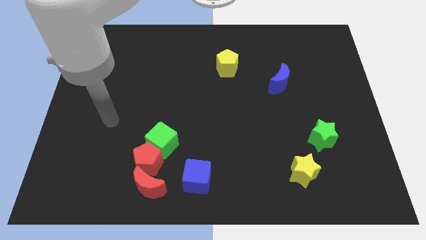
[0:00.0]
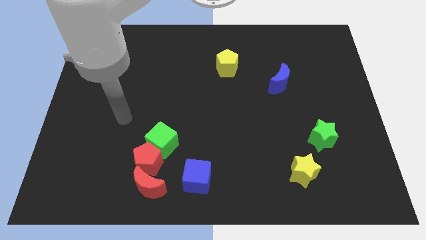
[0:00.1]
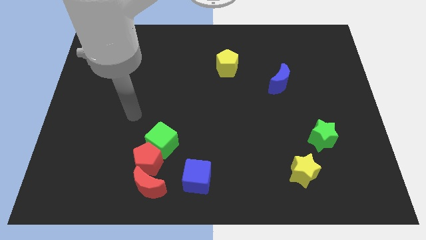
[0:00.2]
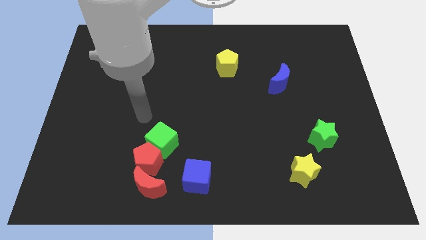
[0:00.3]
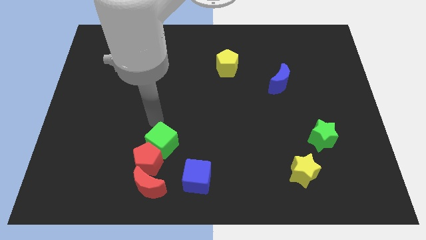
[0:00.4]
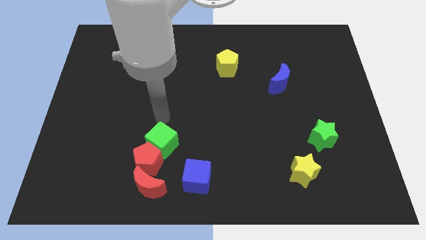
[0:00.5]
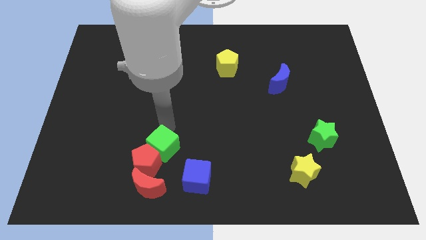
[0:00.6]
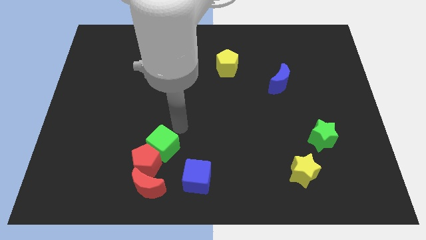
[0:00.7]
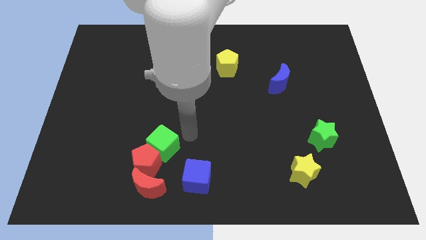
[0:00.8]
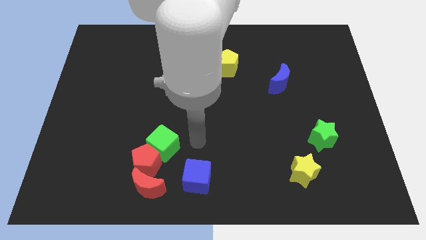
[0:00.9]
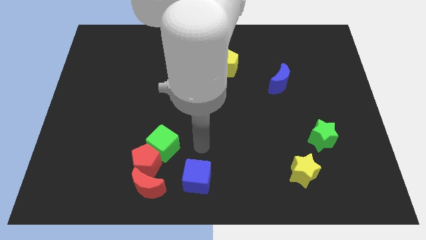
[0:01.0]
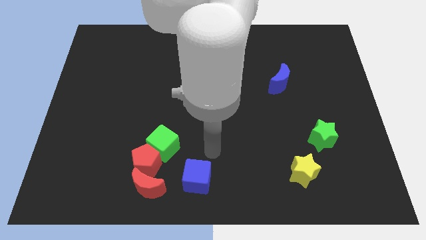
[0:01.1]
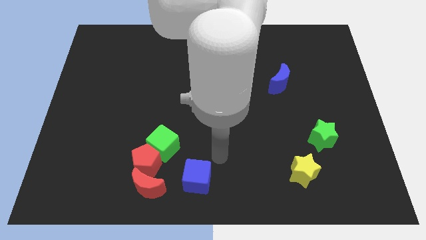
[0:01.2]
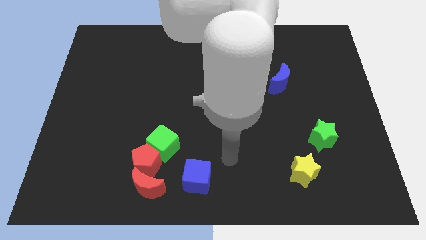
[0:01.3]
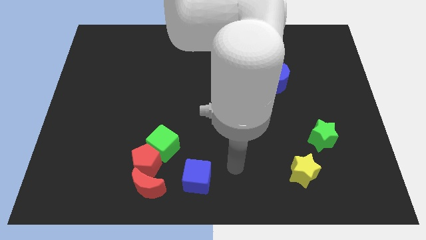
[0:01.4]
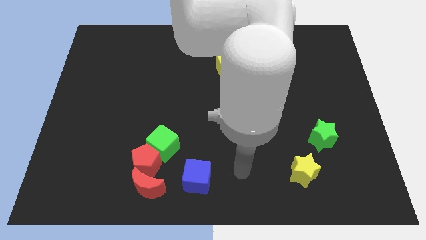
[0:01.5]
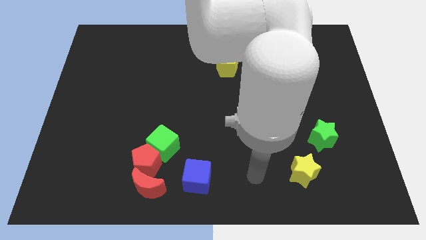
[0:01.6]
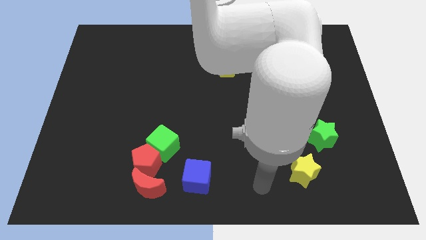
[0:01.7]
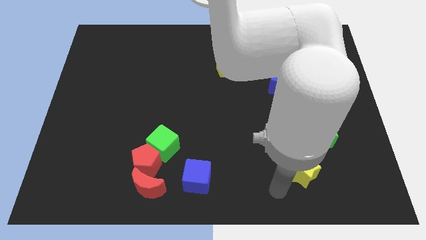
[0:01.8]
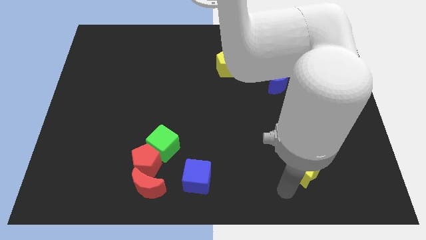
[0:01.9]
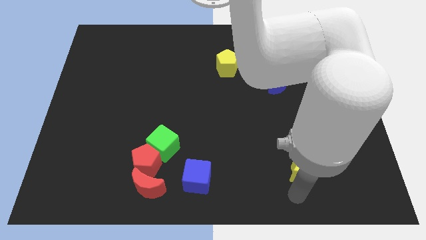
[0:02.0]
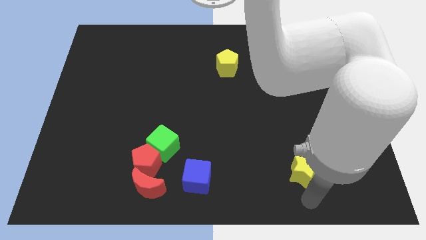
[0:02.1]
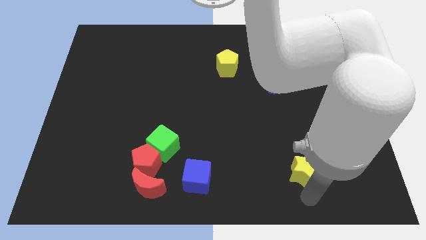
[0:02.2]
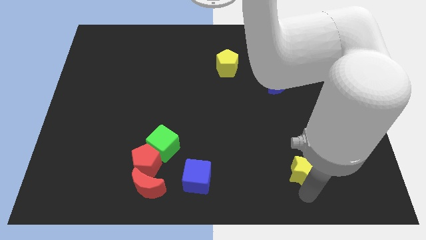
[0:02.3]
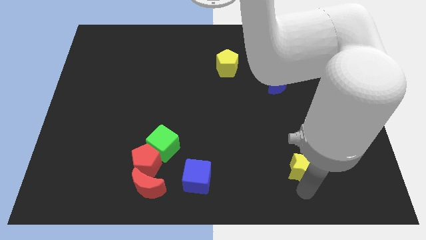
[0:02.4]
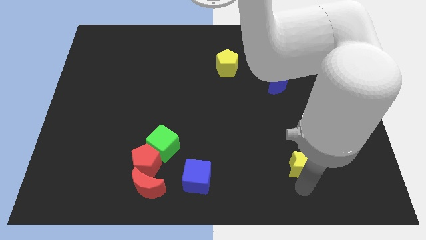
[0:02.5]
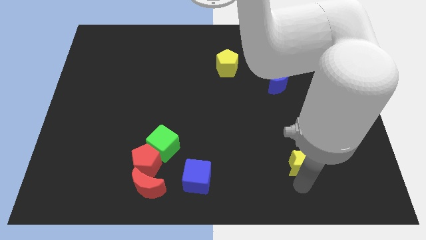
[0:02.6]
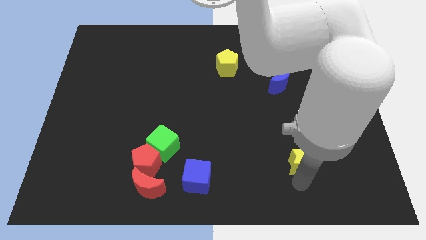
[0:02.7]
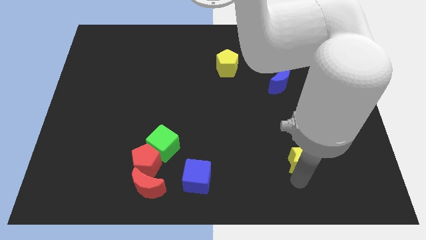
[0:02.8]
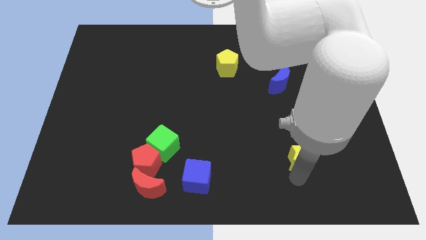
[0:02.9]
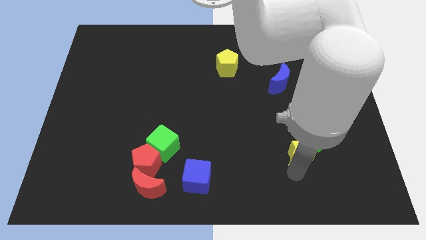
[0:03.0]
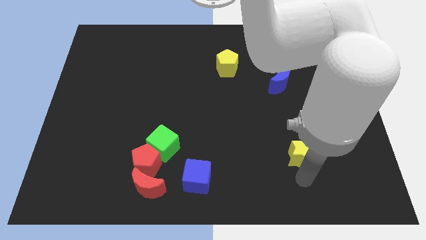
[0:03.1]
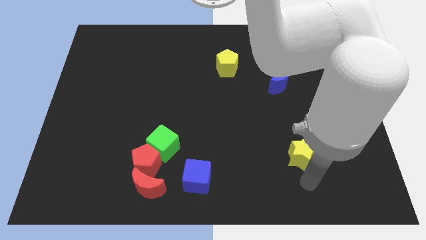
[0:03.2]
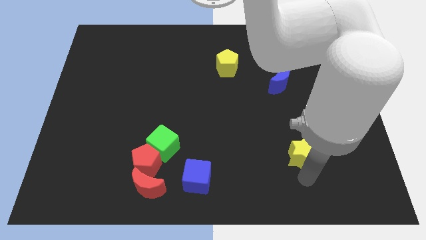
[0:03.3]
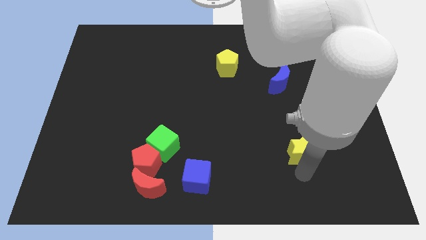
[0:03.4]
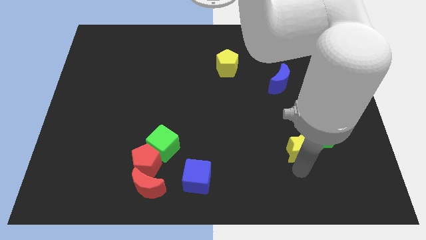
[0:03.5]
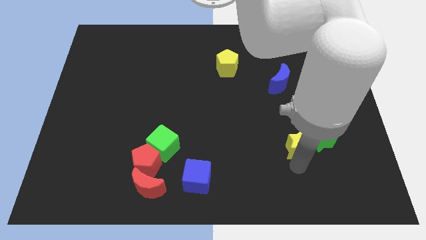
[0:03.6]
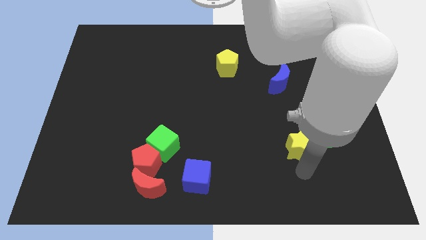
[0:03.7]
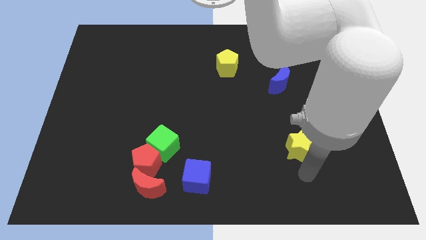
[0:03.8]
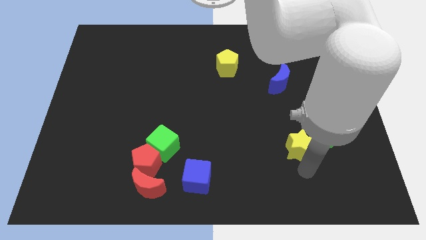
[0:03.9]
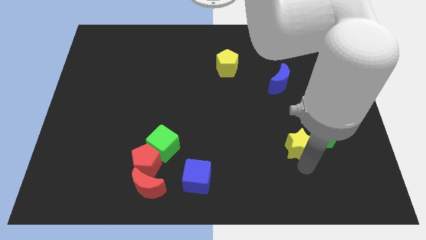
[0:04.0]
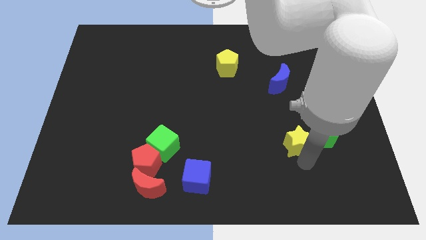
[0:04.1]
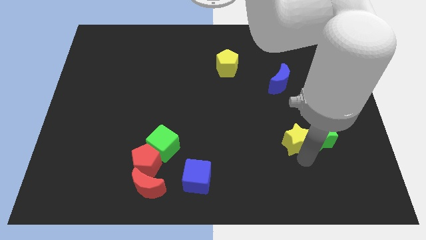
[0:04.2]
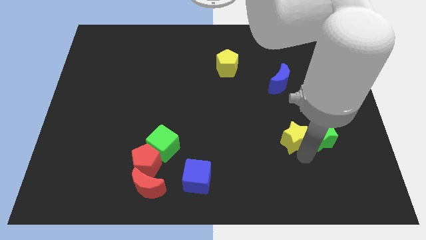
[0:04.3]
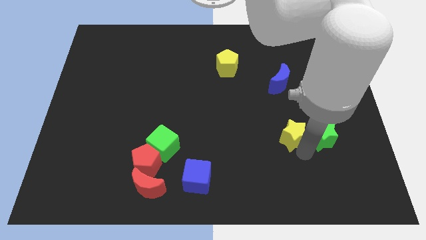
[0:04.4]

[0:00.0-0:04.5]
slide the yellow star below the blue moon

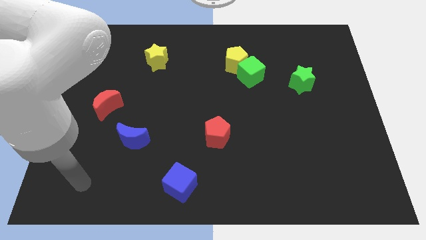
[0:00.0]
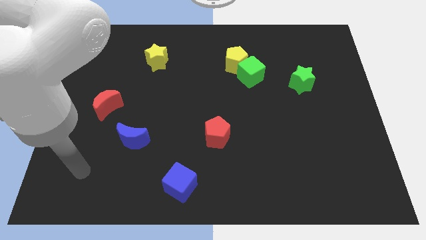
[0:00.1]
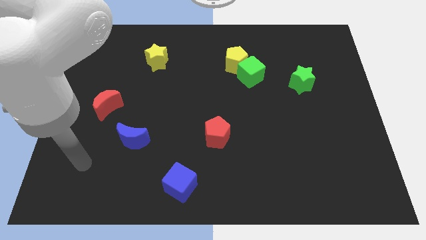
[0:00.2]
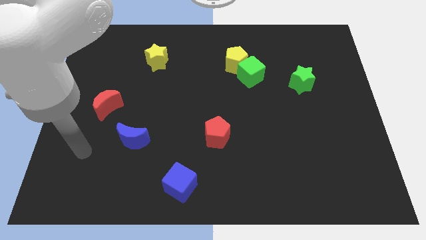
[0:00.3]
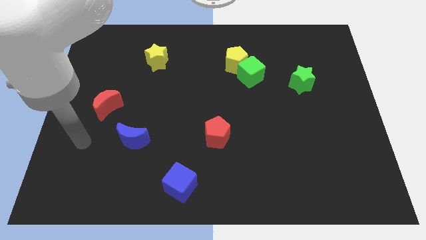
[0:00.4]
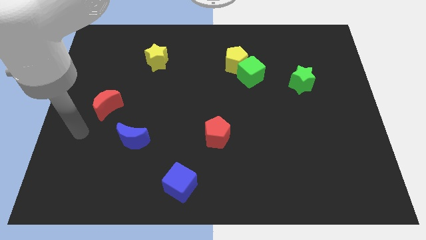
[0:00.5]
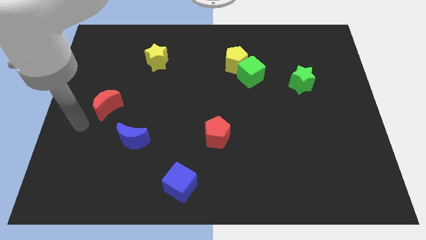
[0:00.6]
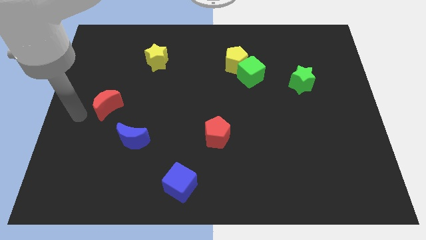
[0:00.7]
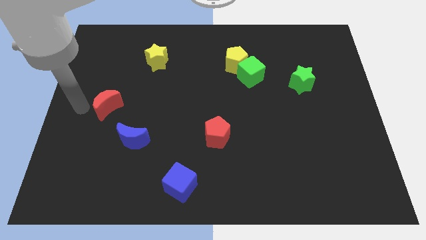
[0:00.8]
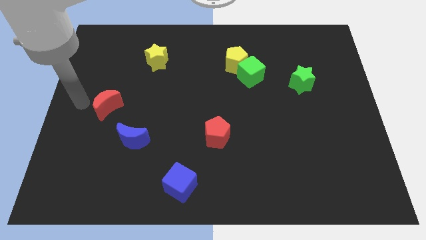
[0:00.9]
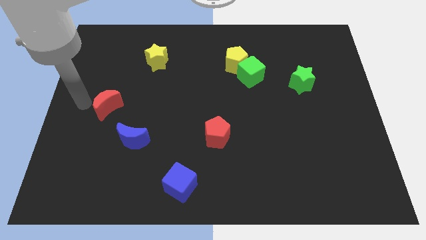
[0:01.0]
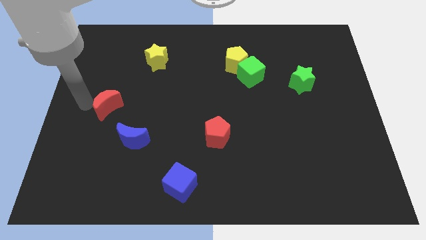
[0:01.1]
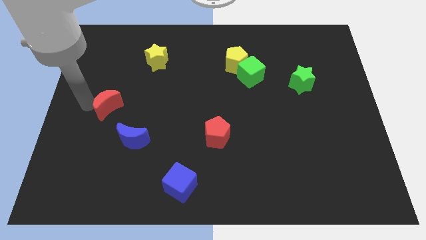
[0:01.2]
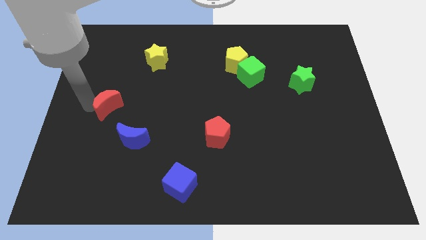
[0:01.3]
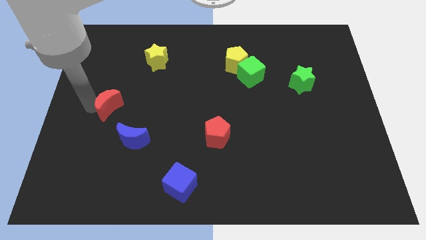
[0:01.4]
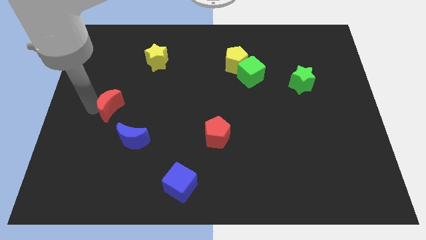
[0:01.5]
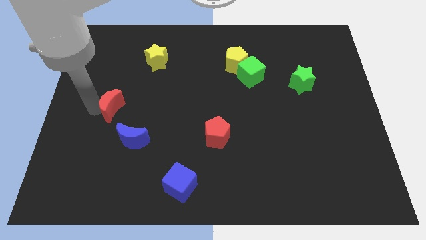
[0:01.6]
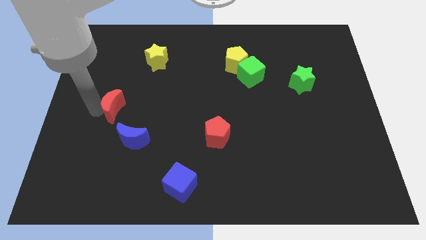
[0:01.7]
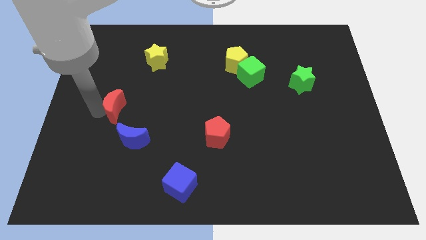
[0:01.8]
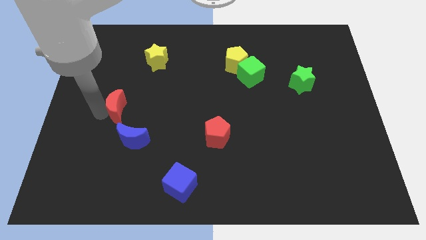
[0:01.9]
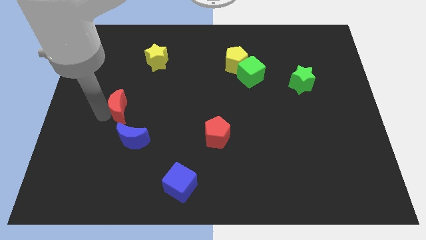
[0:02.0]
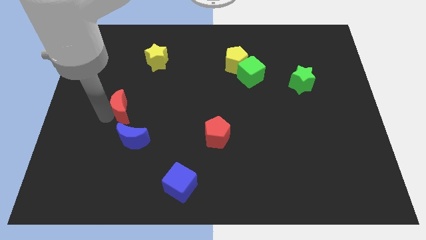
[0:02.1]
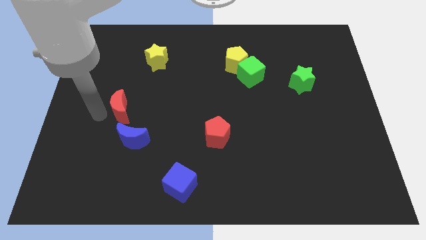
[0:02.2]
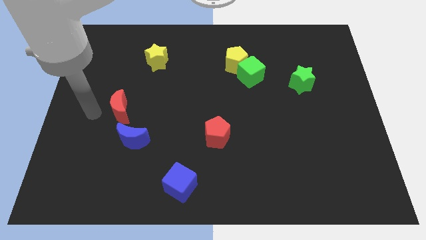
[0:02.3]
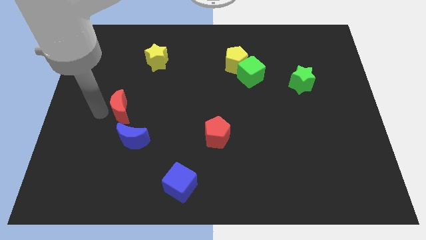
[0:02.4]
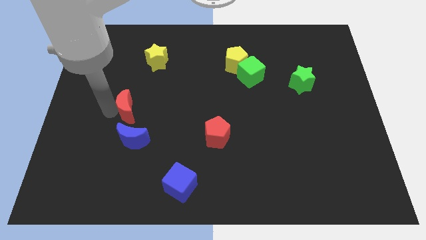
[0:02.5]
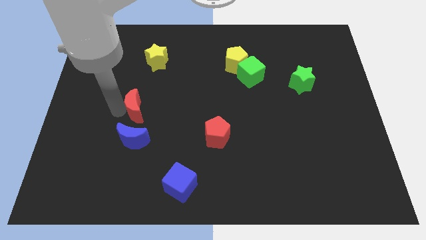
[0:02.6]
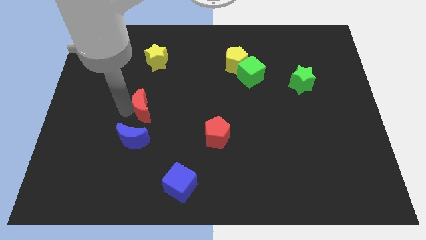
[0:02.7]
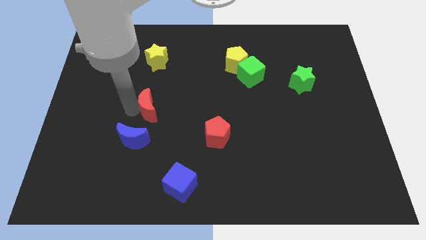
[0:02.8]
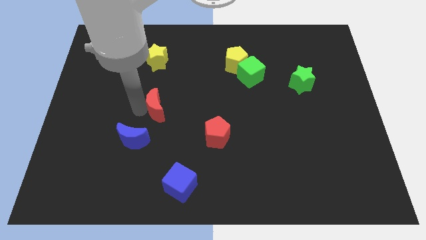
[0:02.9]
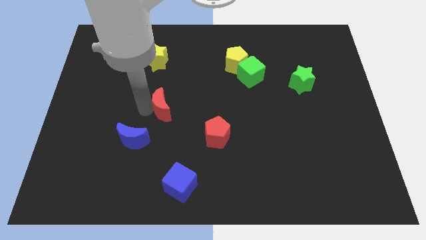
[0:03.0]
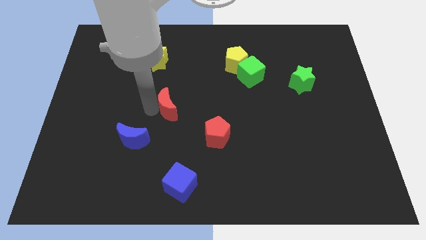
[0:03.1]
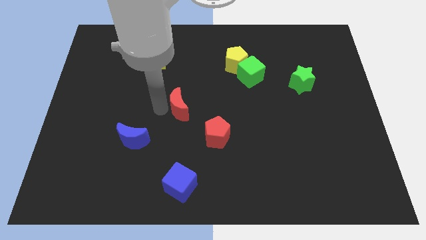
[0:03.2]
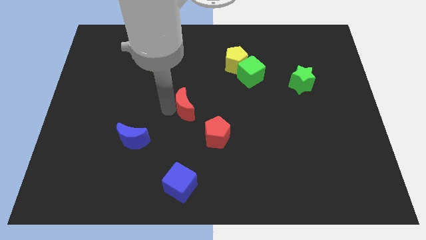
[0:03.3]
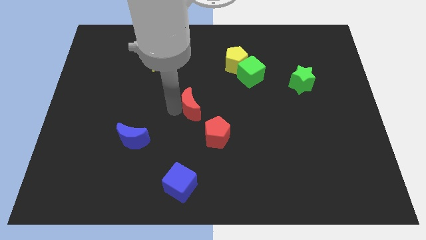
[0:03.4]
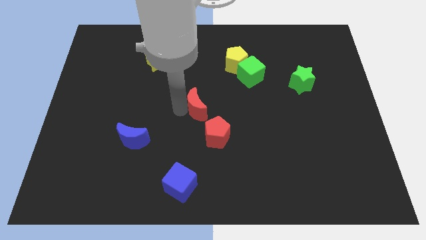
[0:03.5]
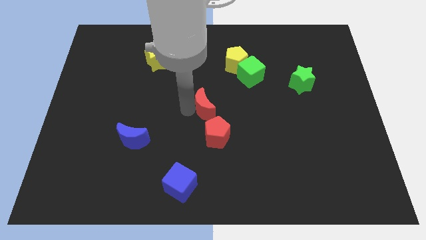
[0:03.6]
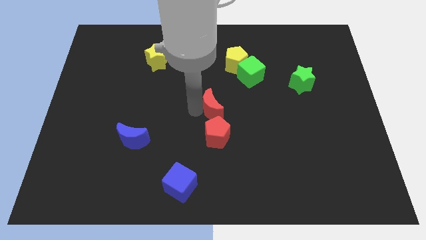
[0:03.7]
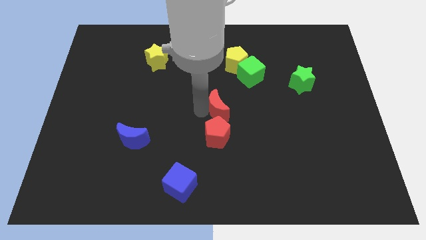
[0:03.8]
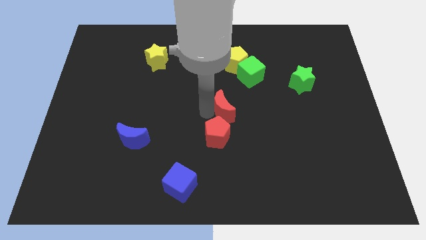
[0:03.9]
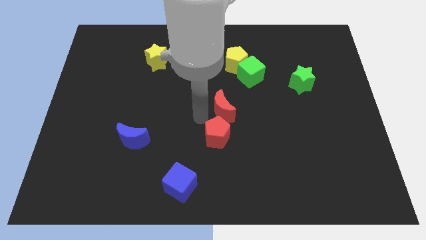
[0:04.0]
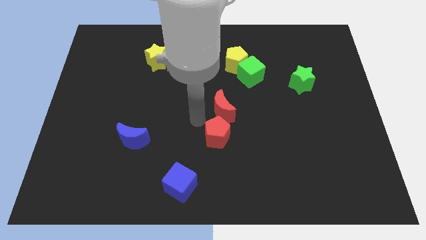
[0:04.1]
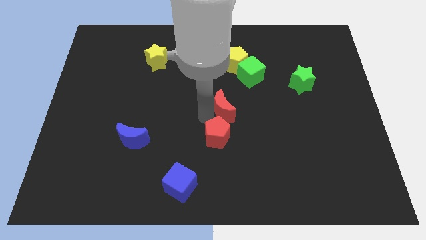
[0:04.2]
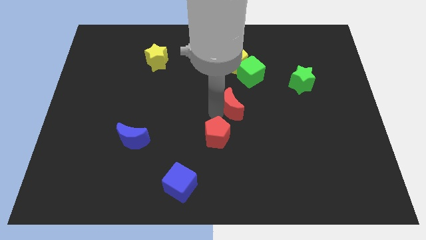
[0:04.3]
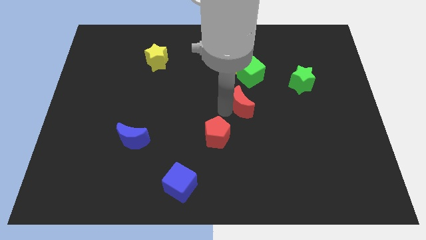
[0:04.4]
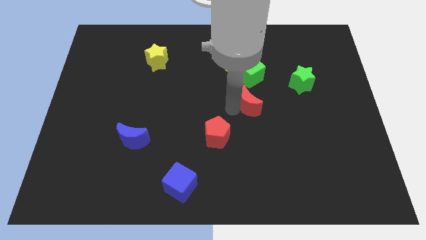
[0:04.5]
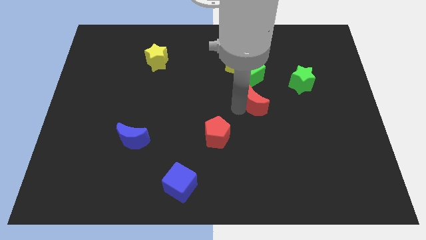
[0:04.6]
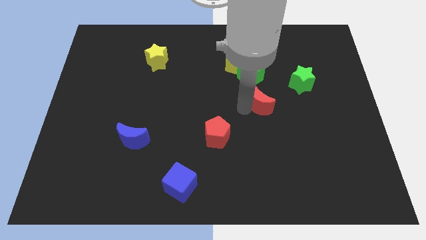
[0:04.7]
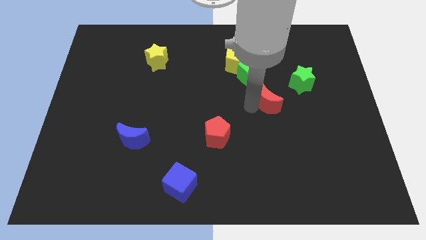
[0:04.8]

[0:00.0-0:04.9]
push the red moon diagonally down and to the left of the green star
